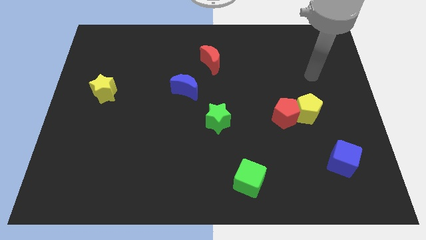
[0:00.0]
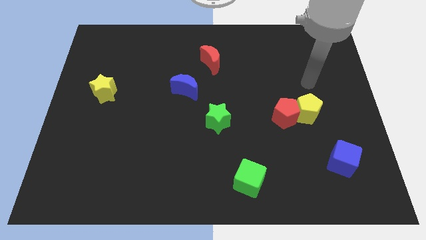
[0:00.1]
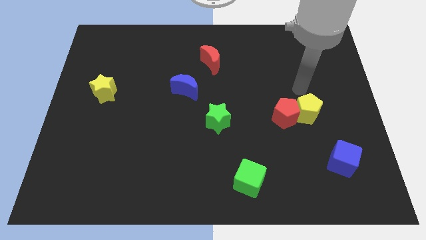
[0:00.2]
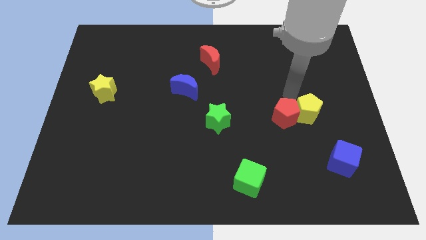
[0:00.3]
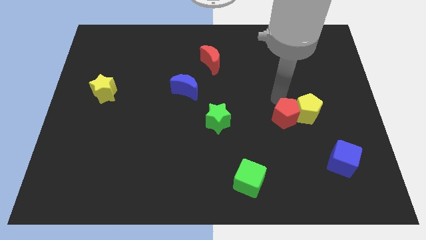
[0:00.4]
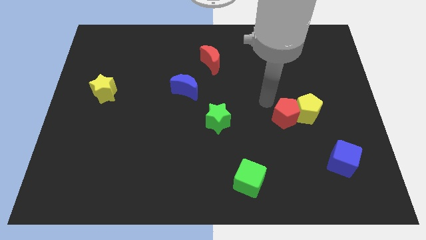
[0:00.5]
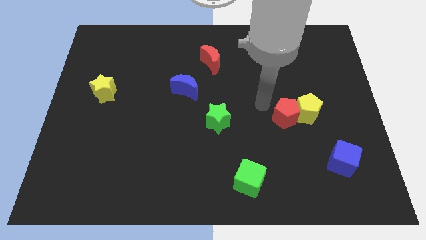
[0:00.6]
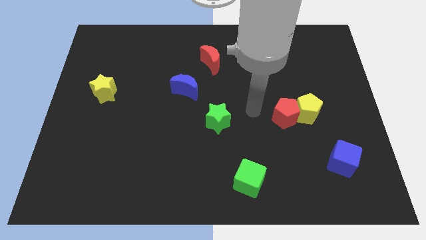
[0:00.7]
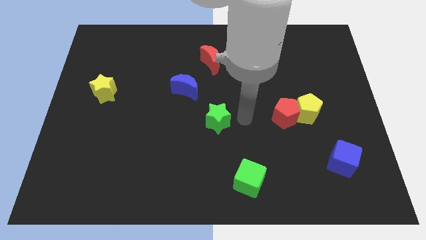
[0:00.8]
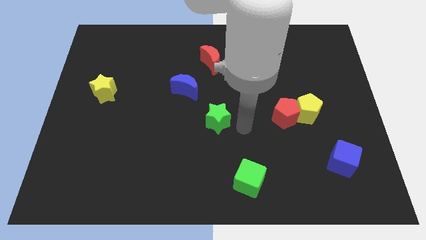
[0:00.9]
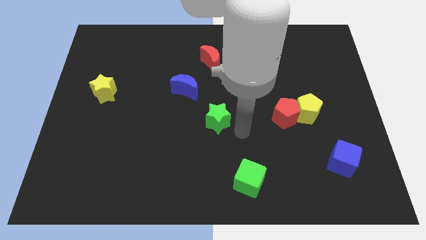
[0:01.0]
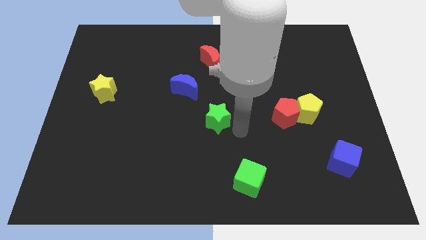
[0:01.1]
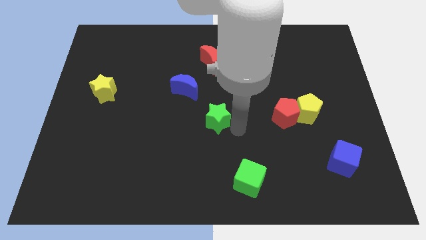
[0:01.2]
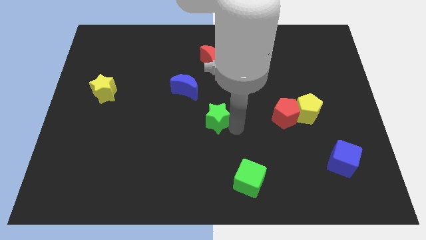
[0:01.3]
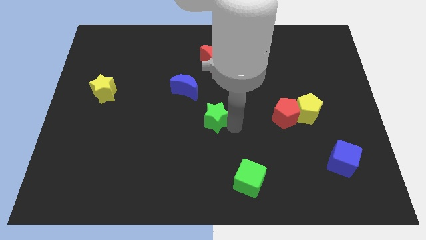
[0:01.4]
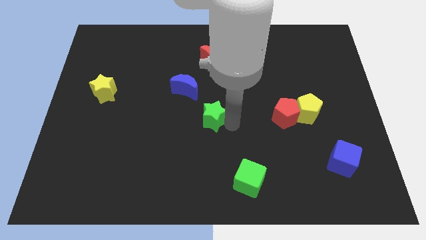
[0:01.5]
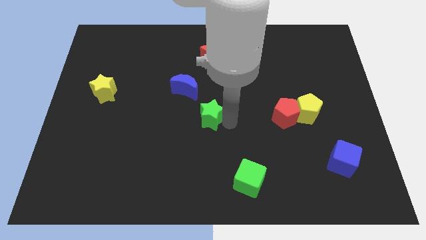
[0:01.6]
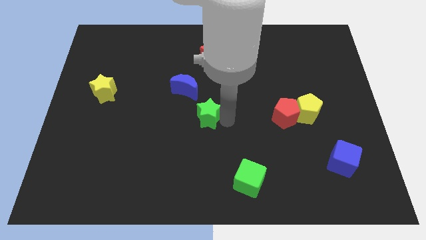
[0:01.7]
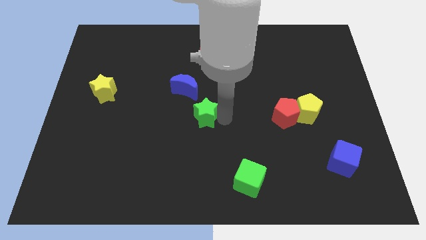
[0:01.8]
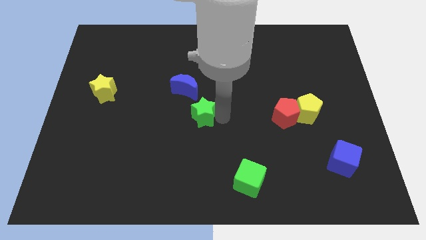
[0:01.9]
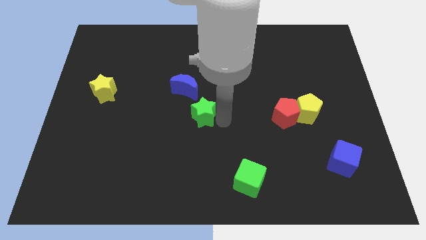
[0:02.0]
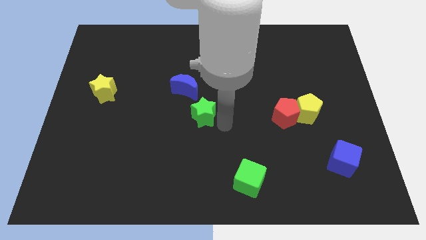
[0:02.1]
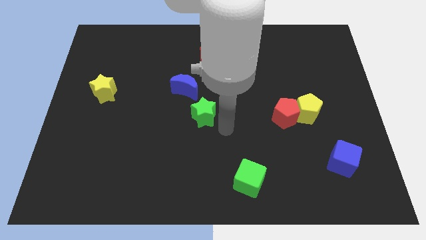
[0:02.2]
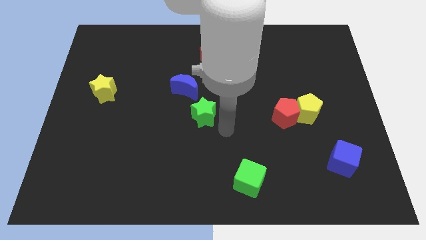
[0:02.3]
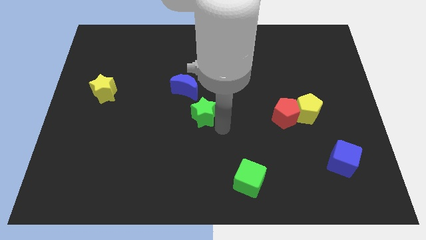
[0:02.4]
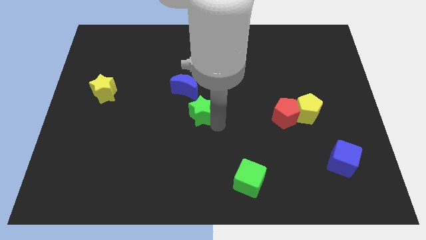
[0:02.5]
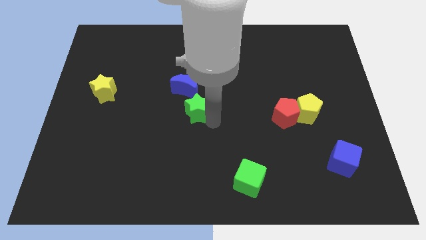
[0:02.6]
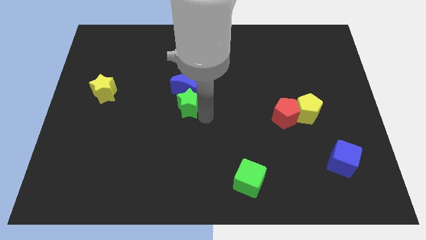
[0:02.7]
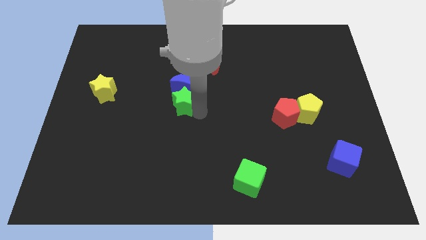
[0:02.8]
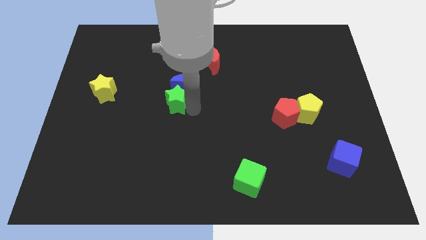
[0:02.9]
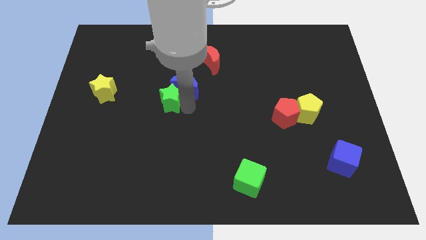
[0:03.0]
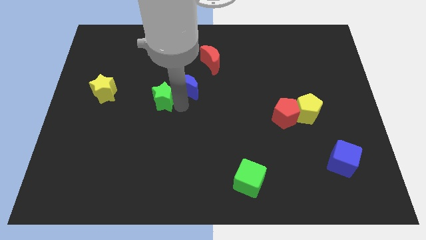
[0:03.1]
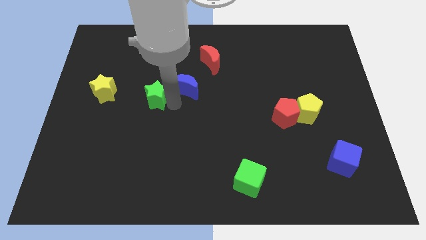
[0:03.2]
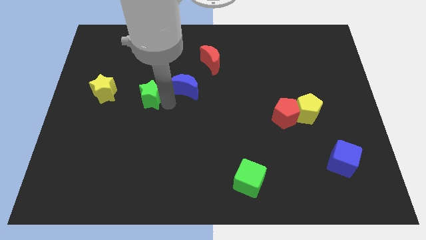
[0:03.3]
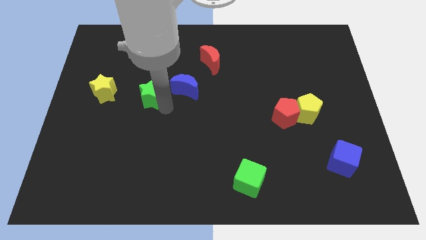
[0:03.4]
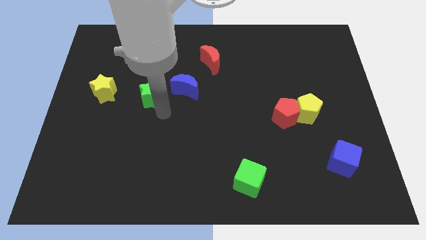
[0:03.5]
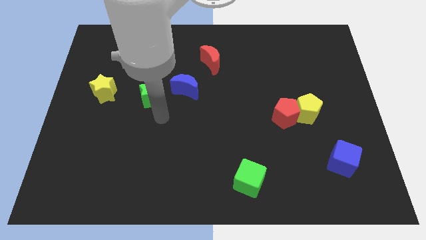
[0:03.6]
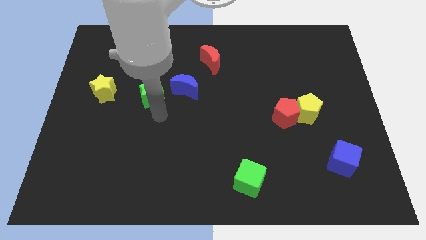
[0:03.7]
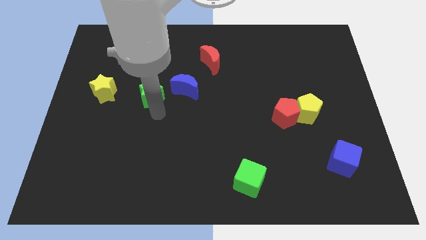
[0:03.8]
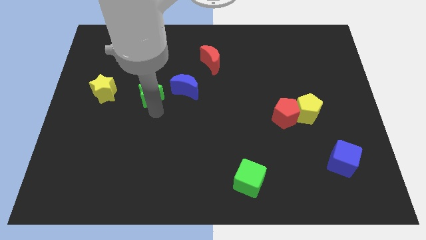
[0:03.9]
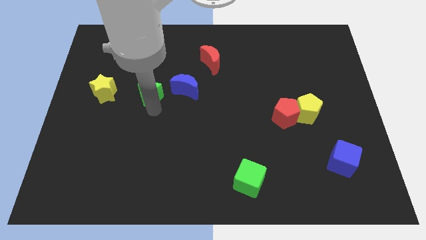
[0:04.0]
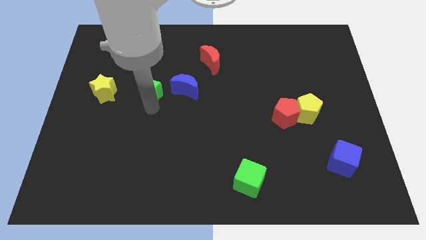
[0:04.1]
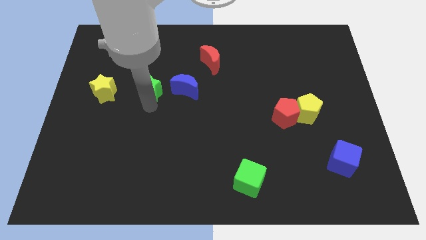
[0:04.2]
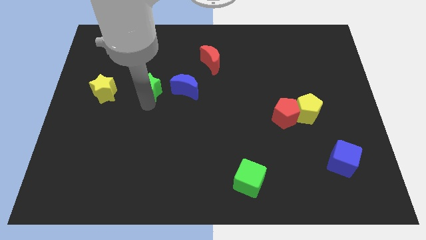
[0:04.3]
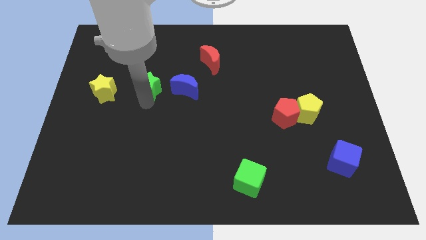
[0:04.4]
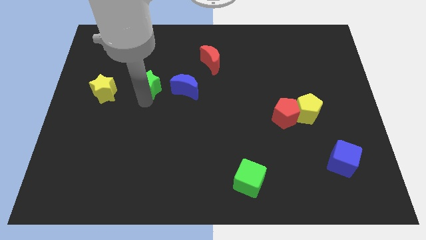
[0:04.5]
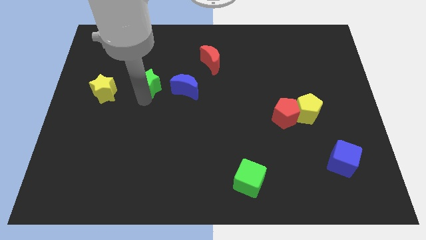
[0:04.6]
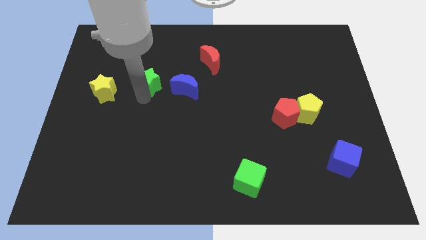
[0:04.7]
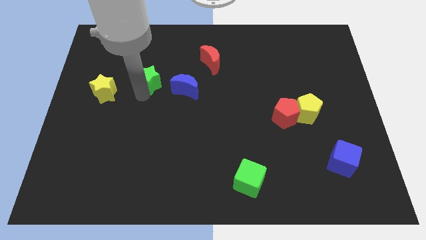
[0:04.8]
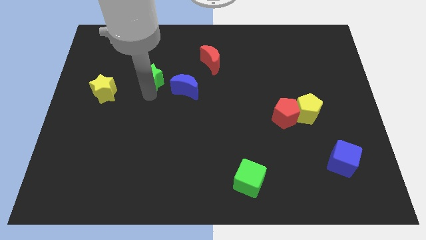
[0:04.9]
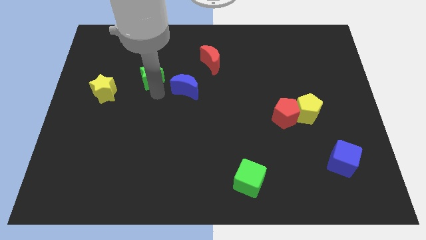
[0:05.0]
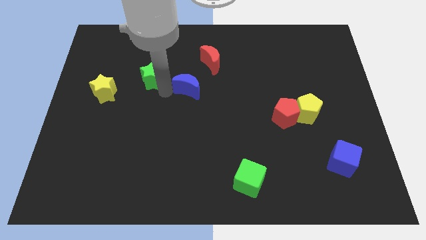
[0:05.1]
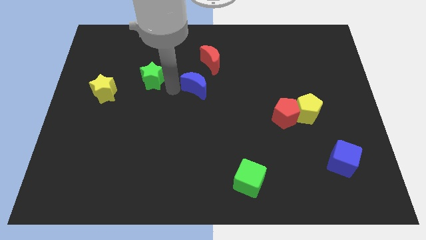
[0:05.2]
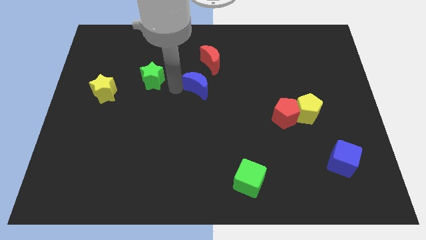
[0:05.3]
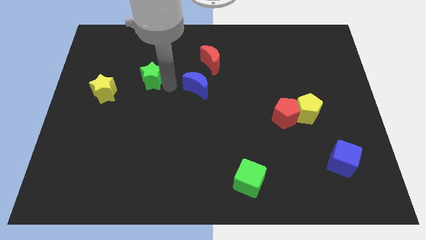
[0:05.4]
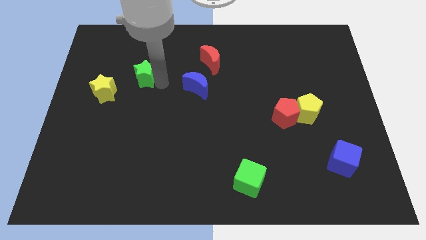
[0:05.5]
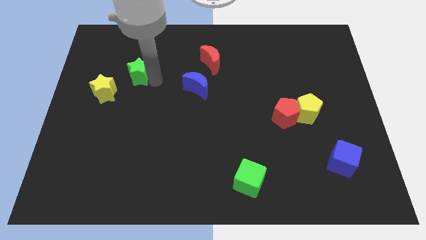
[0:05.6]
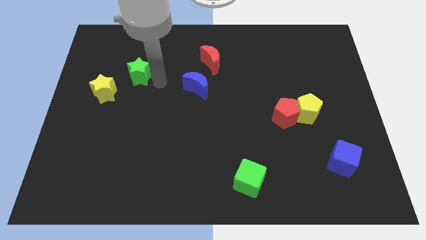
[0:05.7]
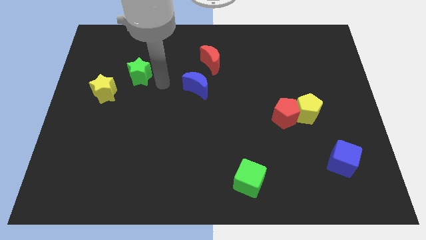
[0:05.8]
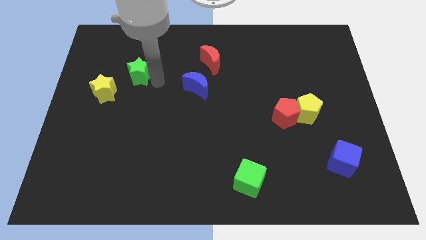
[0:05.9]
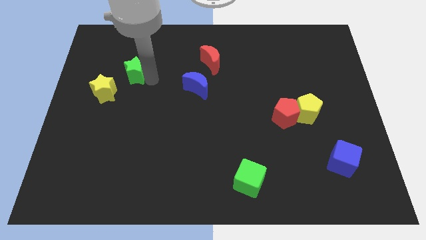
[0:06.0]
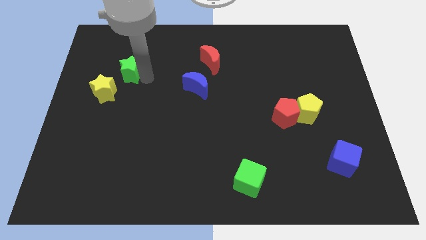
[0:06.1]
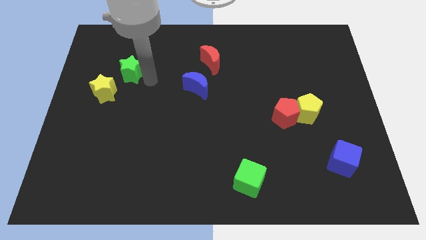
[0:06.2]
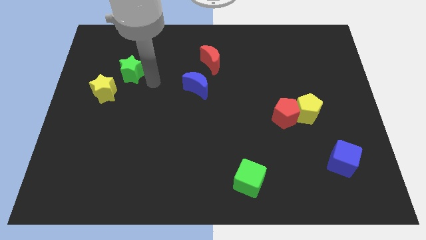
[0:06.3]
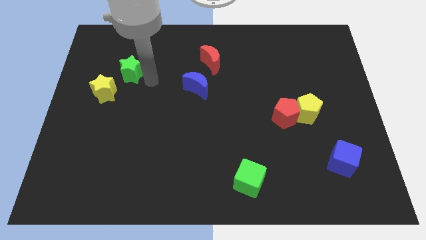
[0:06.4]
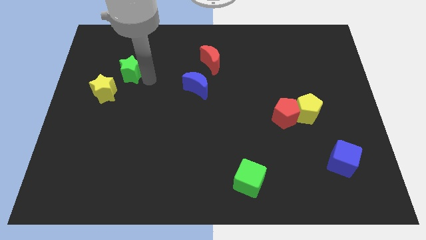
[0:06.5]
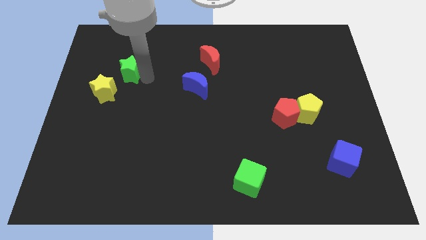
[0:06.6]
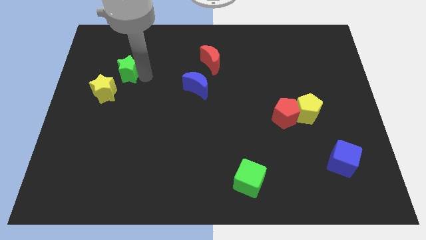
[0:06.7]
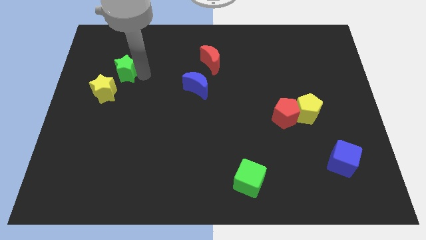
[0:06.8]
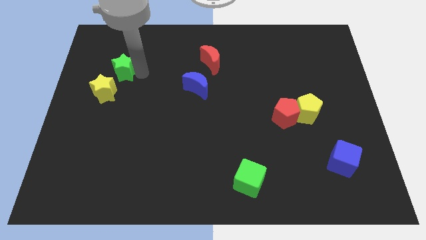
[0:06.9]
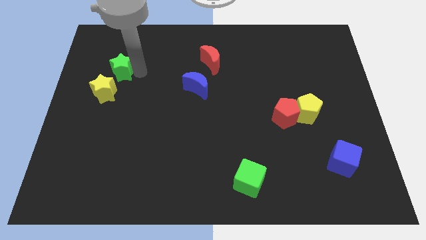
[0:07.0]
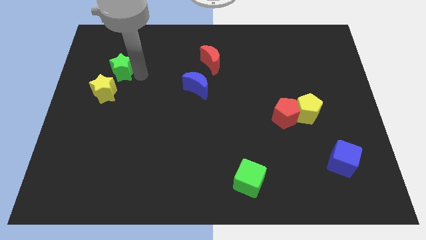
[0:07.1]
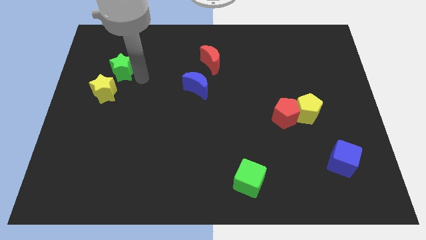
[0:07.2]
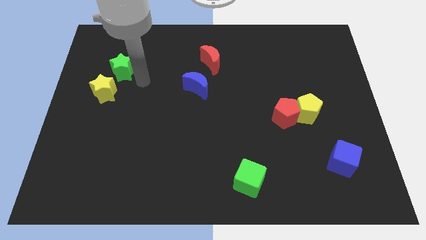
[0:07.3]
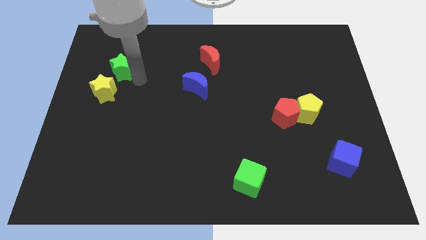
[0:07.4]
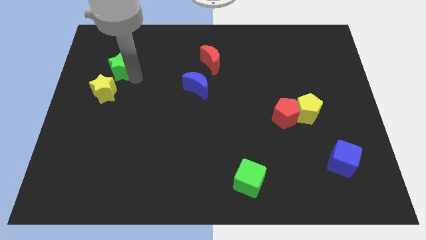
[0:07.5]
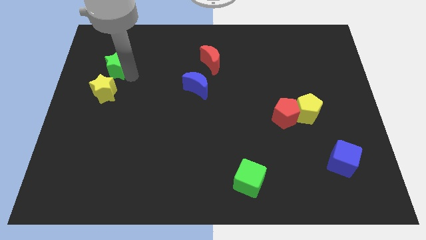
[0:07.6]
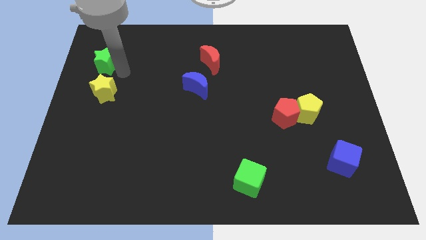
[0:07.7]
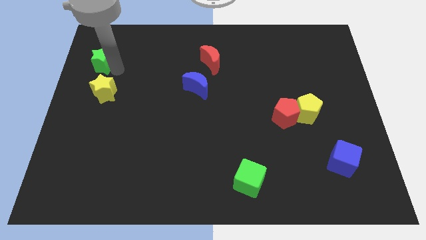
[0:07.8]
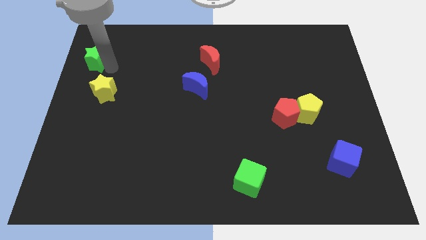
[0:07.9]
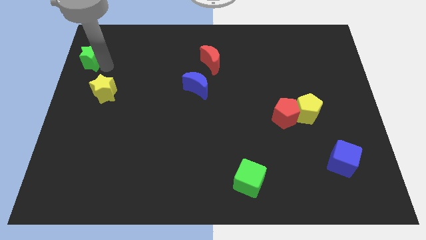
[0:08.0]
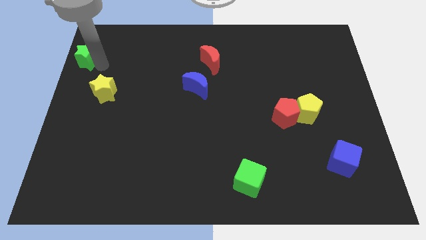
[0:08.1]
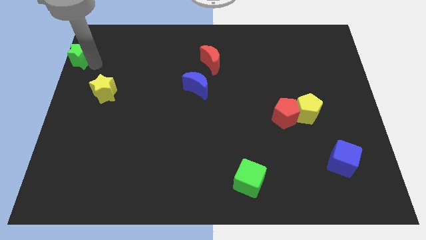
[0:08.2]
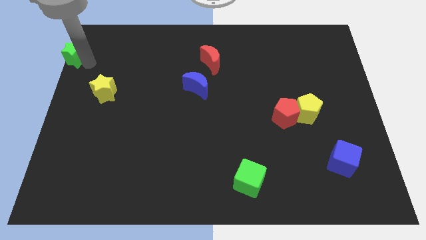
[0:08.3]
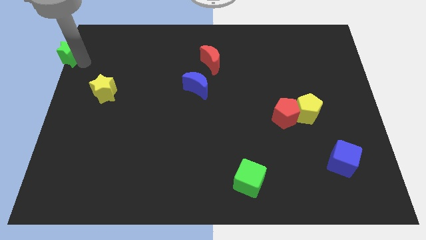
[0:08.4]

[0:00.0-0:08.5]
slide the green star to the top left corner
